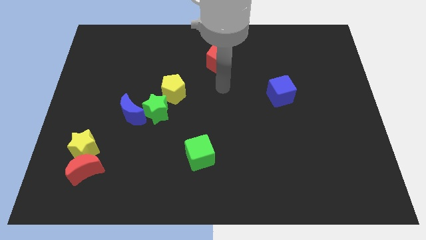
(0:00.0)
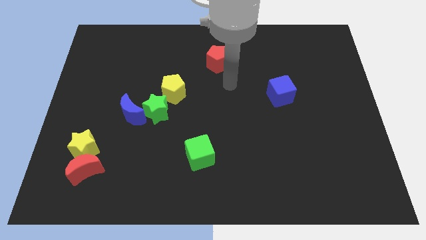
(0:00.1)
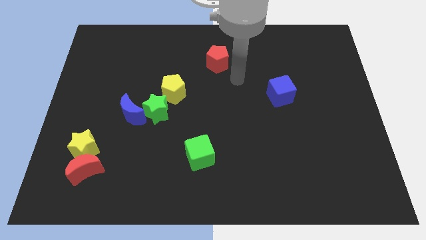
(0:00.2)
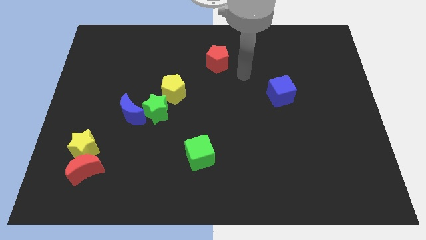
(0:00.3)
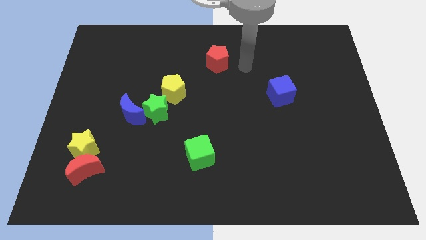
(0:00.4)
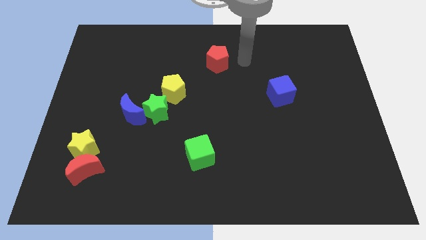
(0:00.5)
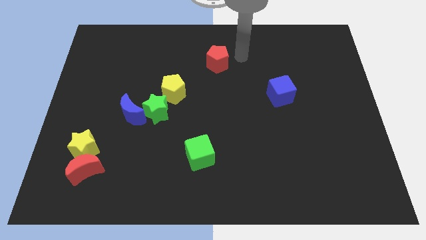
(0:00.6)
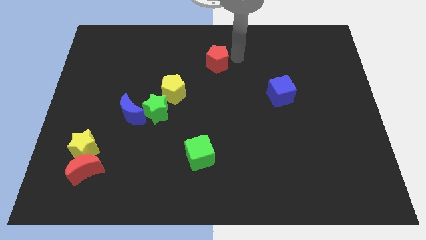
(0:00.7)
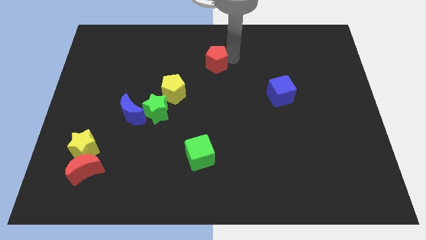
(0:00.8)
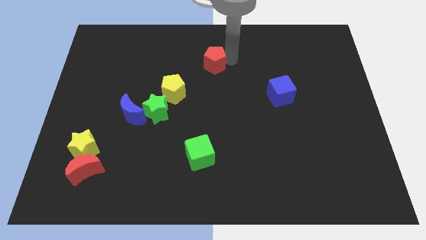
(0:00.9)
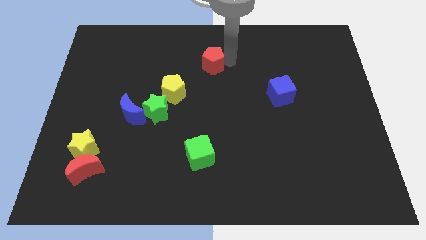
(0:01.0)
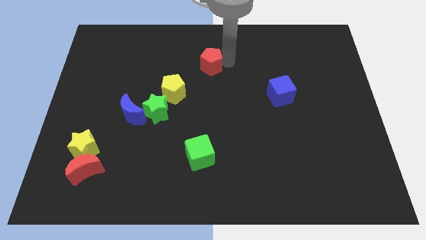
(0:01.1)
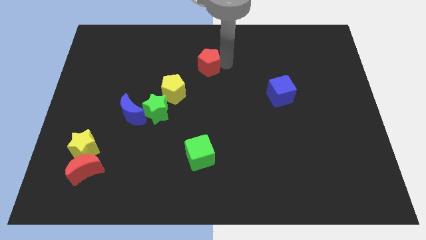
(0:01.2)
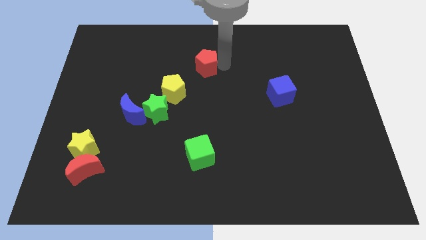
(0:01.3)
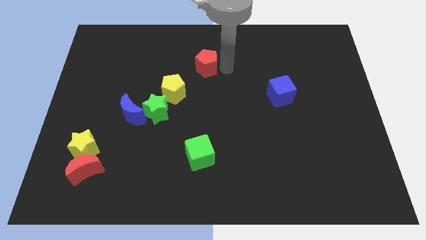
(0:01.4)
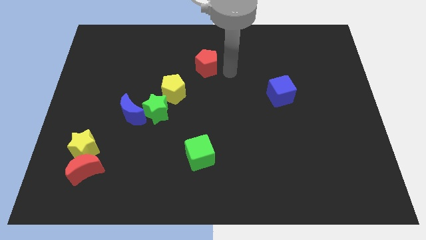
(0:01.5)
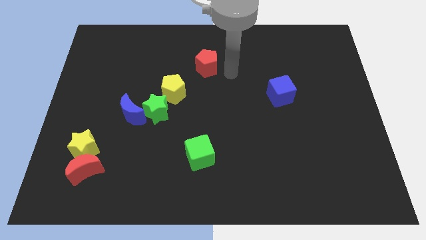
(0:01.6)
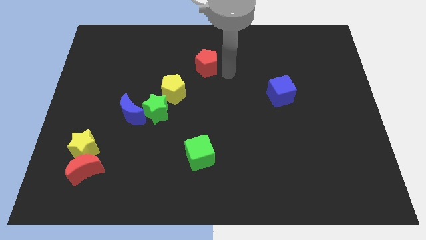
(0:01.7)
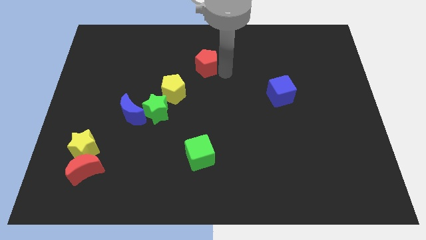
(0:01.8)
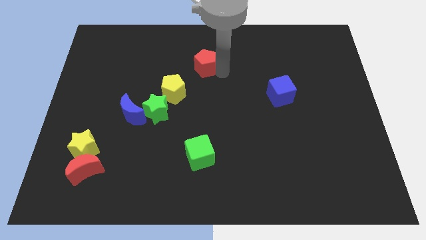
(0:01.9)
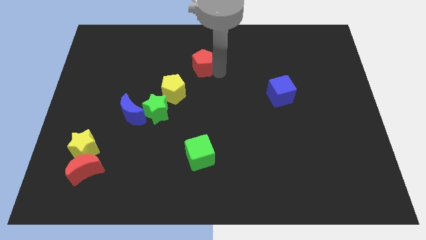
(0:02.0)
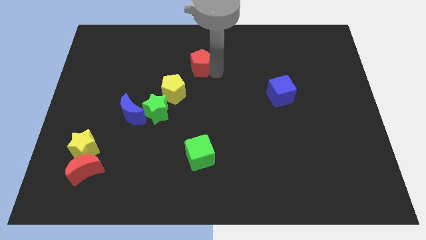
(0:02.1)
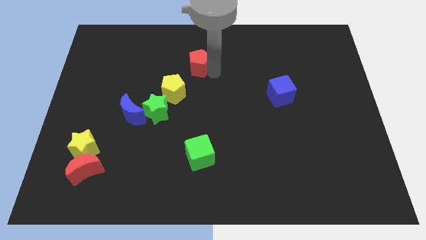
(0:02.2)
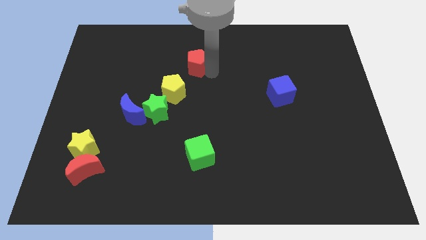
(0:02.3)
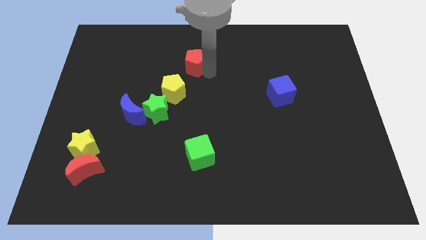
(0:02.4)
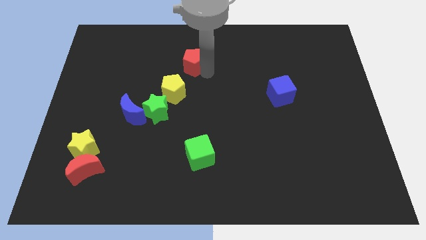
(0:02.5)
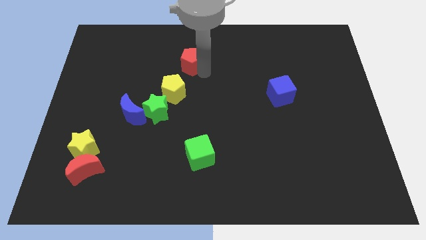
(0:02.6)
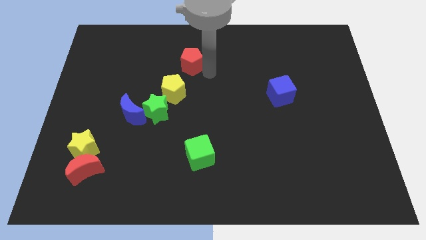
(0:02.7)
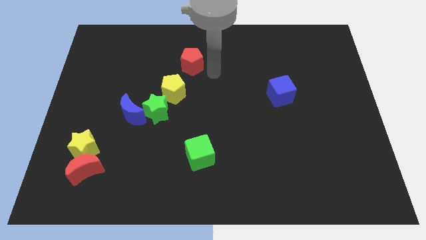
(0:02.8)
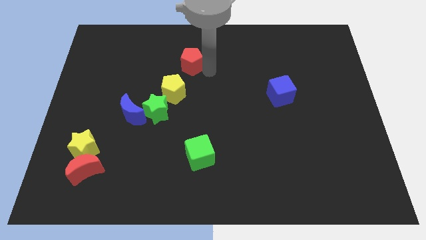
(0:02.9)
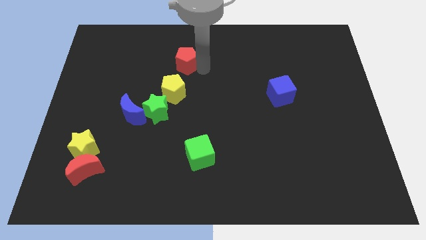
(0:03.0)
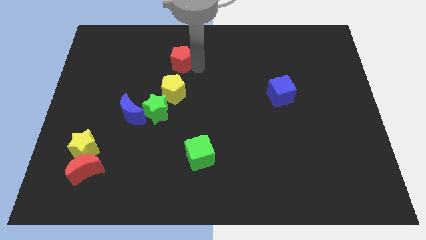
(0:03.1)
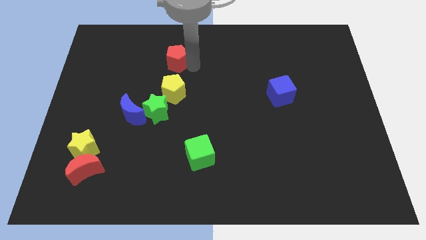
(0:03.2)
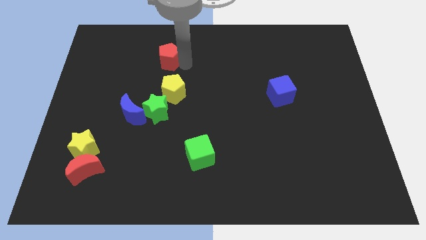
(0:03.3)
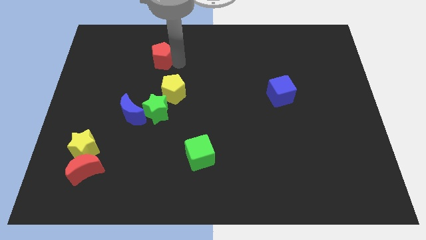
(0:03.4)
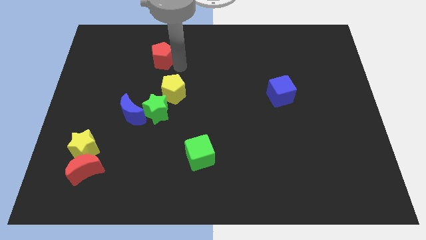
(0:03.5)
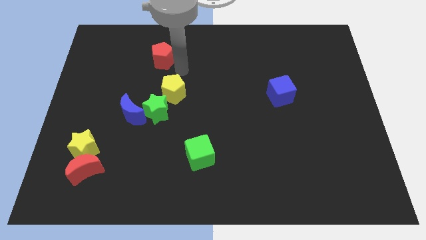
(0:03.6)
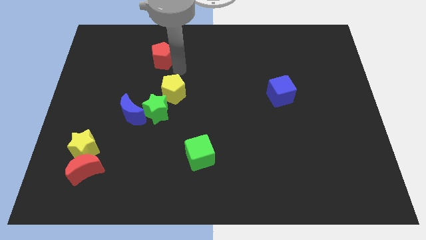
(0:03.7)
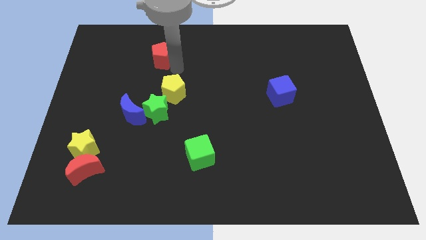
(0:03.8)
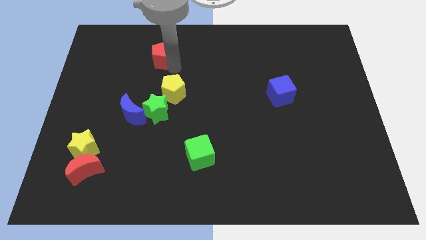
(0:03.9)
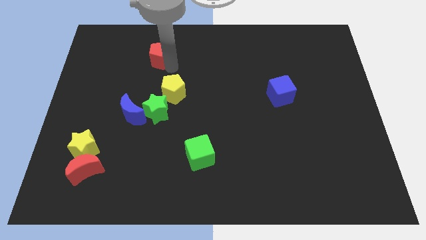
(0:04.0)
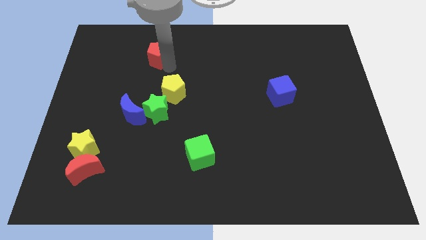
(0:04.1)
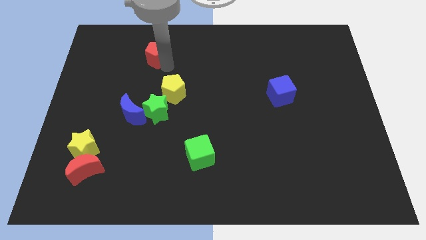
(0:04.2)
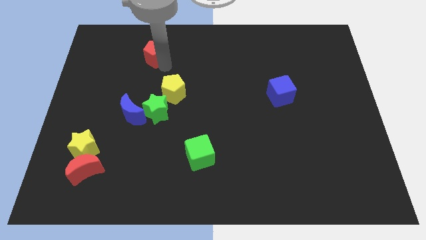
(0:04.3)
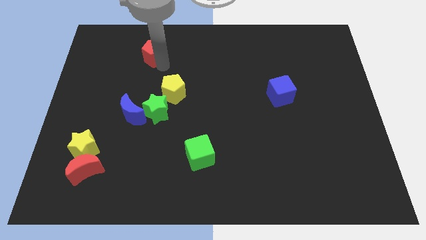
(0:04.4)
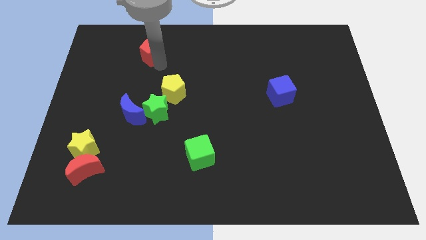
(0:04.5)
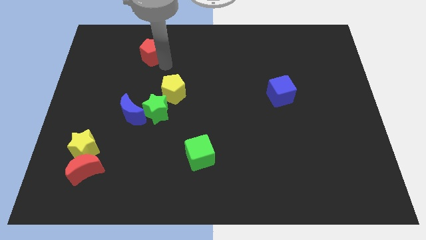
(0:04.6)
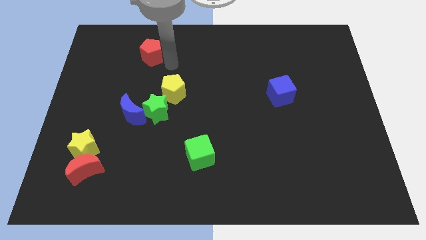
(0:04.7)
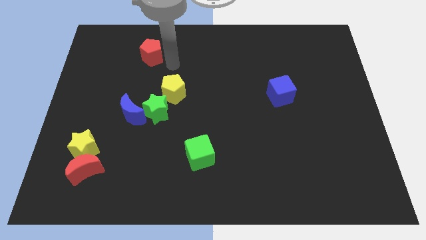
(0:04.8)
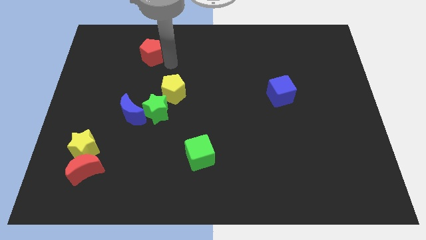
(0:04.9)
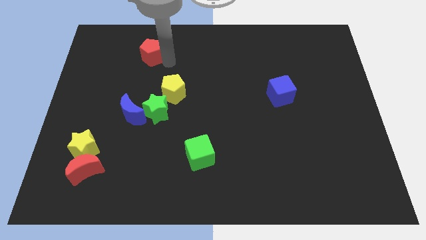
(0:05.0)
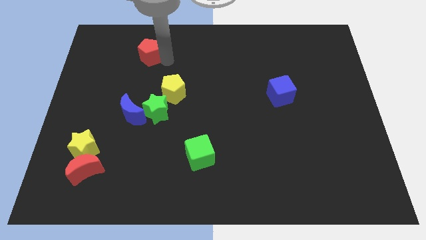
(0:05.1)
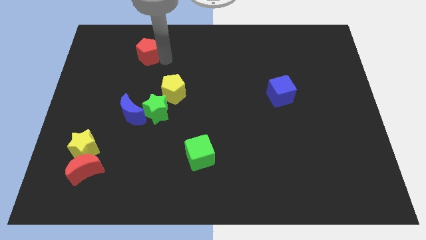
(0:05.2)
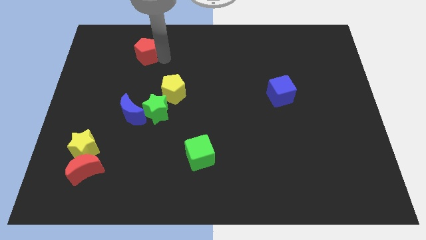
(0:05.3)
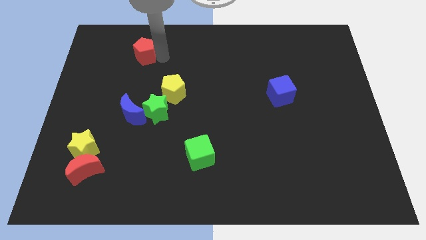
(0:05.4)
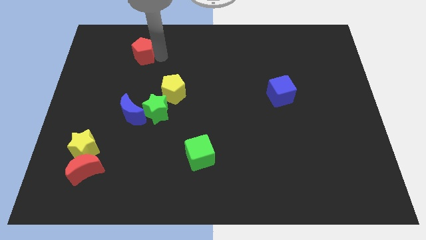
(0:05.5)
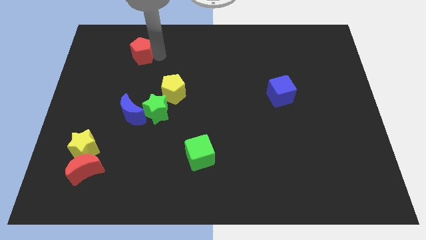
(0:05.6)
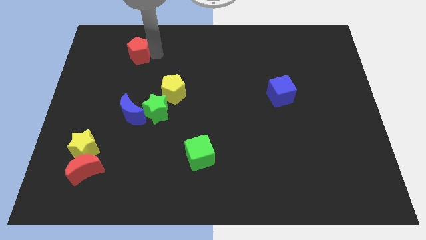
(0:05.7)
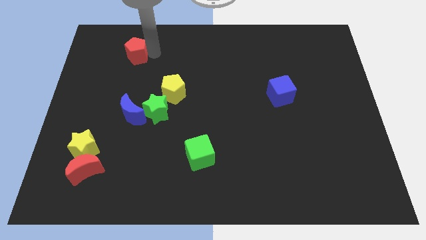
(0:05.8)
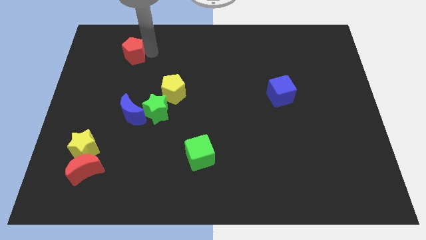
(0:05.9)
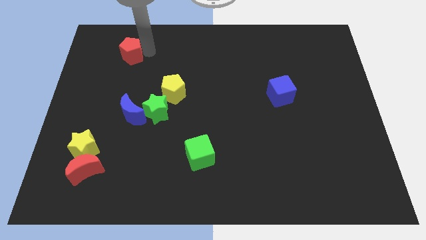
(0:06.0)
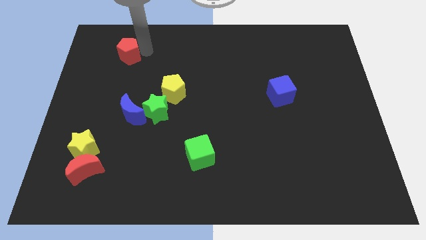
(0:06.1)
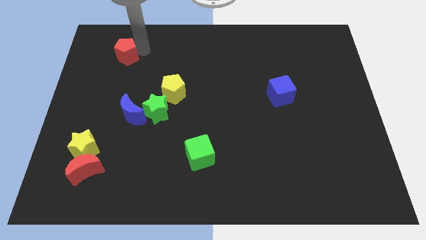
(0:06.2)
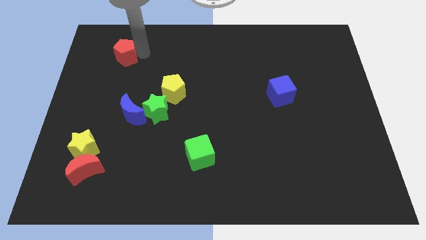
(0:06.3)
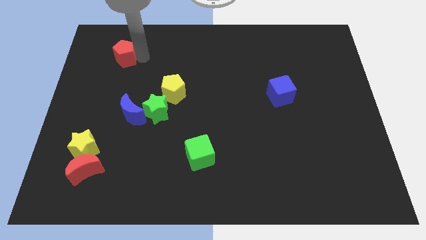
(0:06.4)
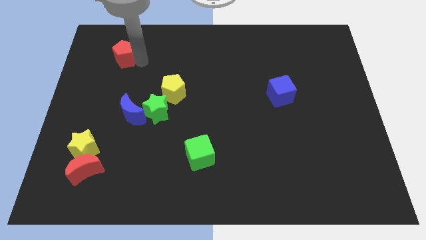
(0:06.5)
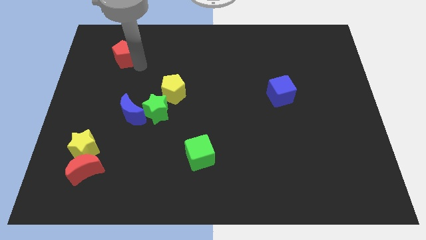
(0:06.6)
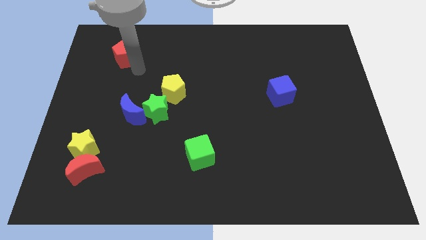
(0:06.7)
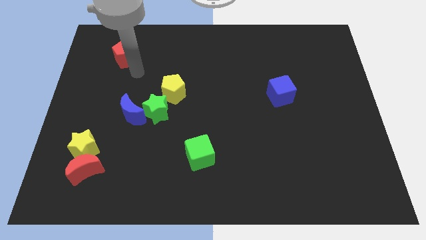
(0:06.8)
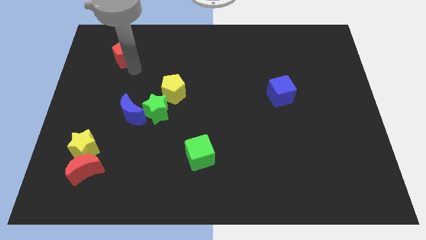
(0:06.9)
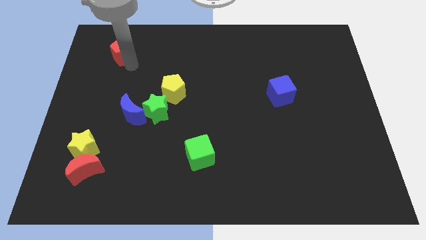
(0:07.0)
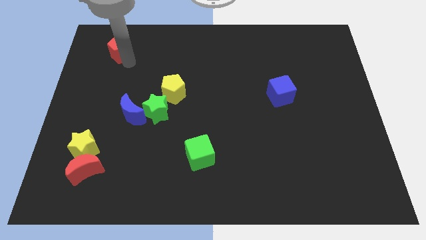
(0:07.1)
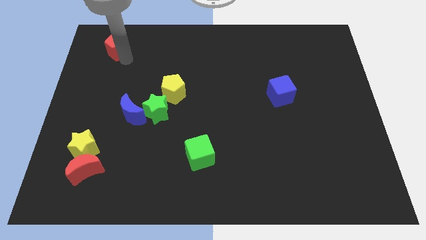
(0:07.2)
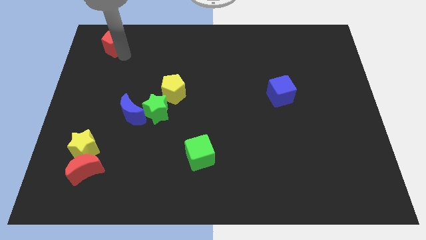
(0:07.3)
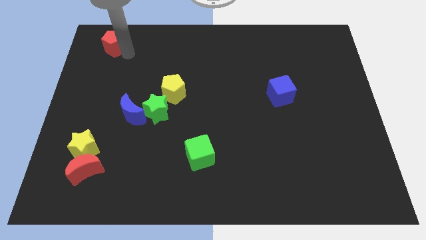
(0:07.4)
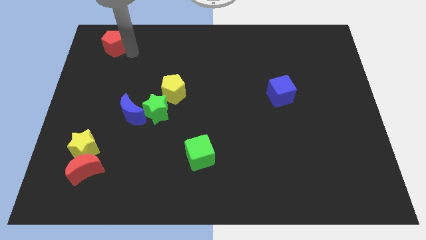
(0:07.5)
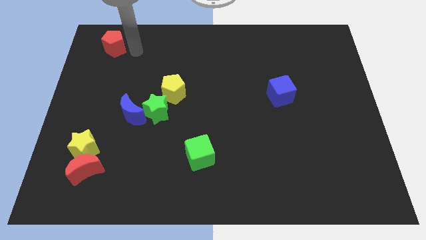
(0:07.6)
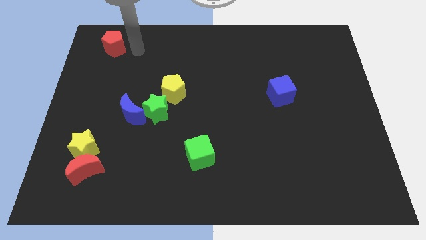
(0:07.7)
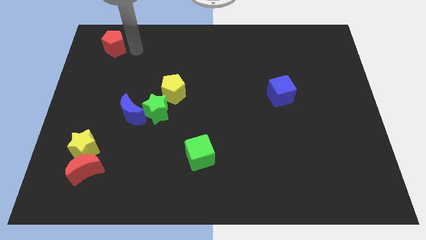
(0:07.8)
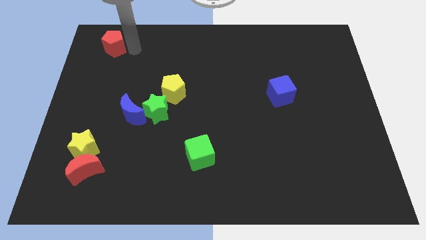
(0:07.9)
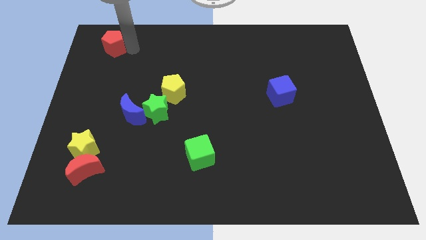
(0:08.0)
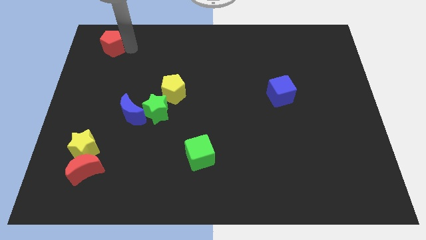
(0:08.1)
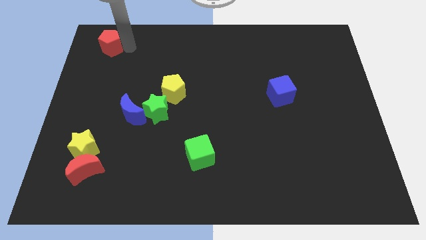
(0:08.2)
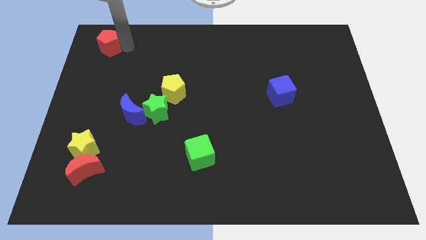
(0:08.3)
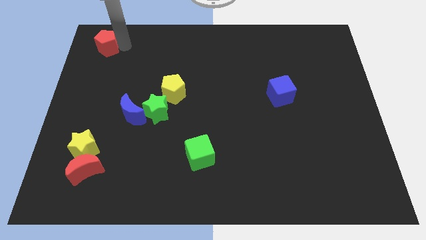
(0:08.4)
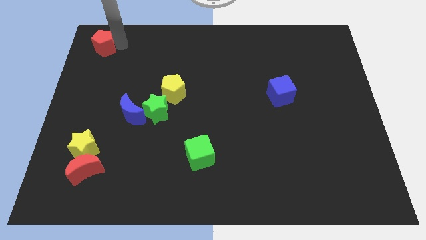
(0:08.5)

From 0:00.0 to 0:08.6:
slide the red pentagon to the top left of the board
